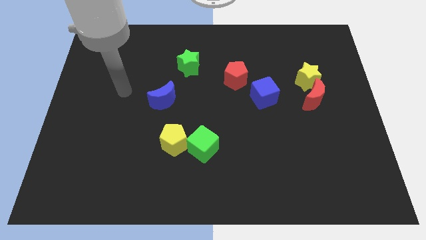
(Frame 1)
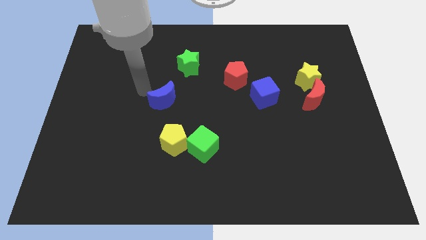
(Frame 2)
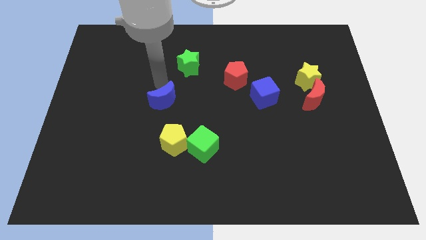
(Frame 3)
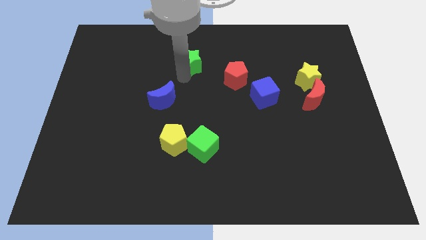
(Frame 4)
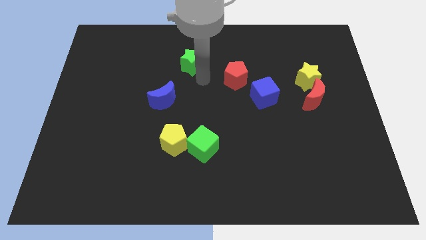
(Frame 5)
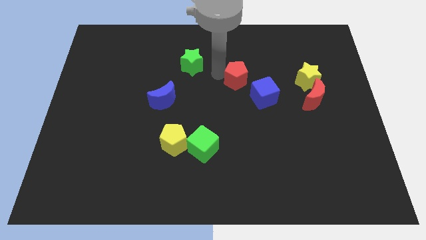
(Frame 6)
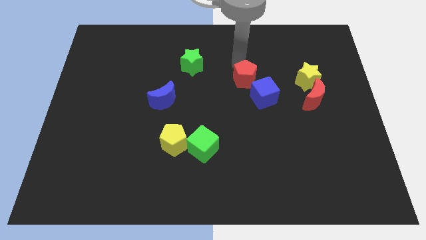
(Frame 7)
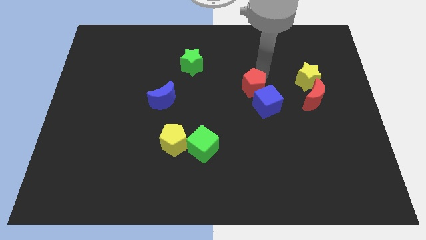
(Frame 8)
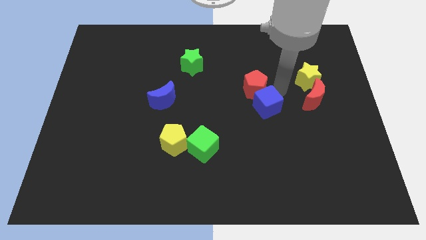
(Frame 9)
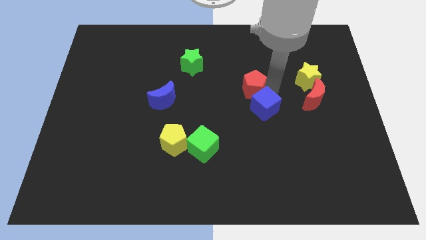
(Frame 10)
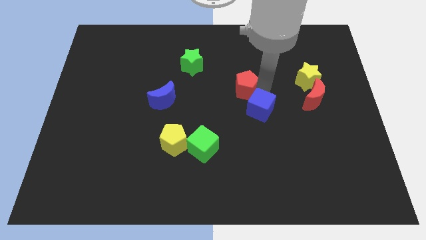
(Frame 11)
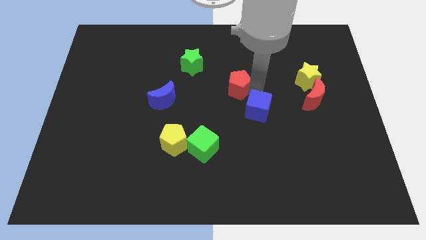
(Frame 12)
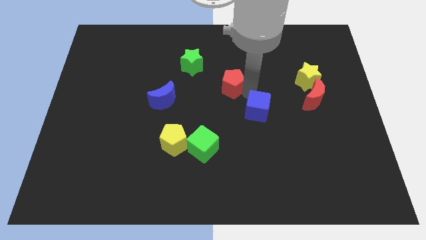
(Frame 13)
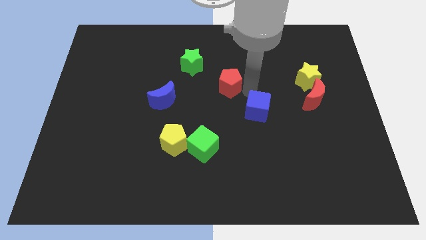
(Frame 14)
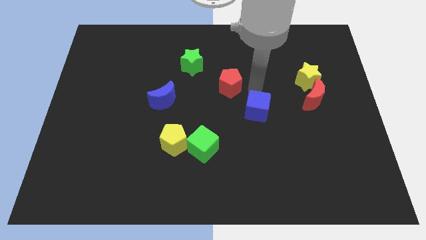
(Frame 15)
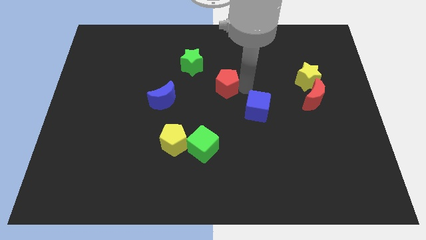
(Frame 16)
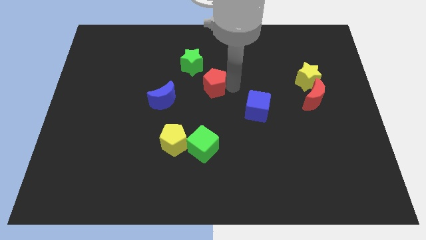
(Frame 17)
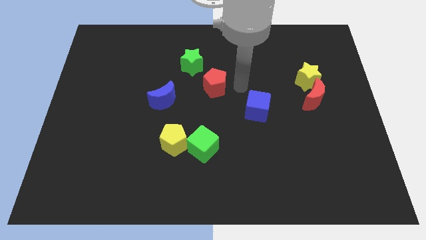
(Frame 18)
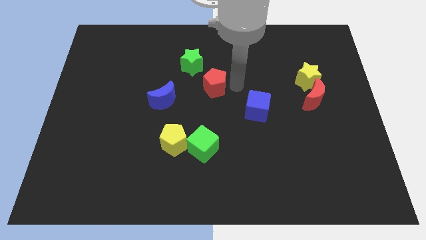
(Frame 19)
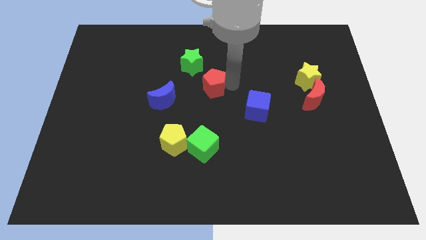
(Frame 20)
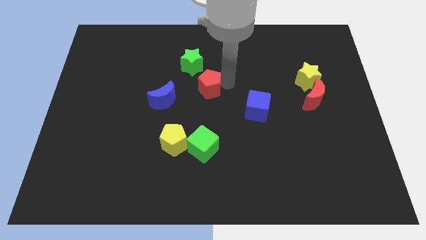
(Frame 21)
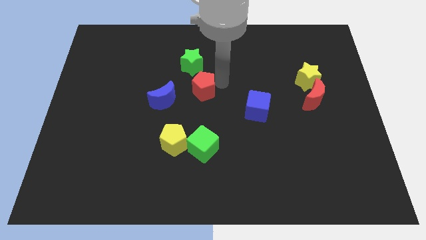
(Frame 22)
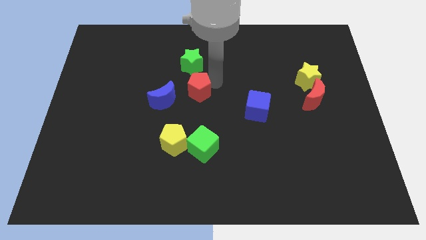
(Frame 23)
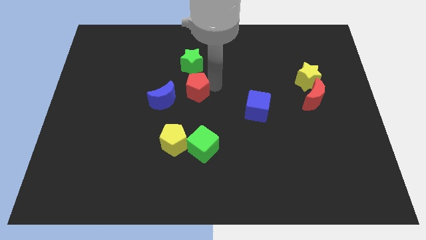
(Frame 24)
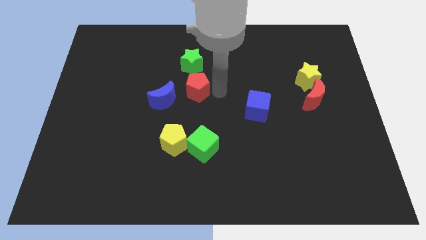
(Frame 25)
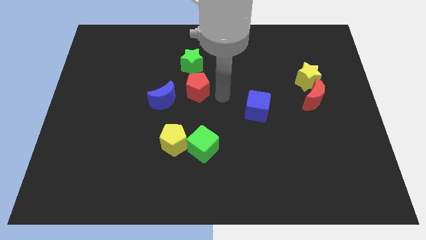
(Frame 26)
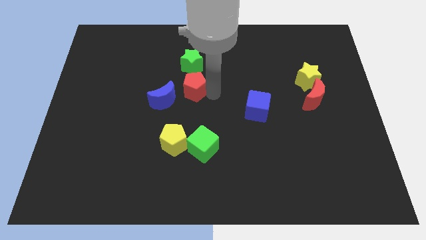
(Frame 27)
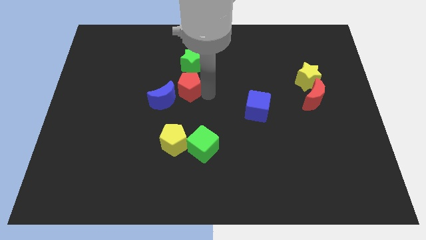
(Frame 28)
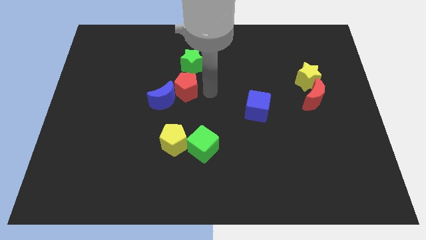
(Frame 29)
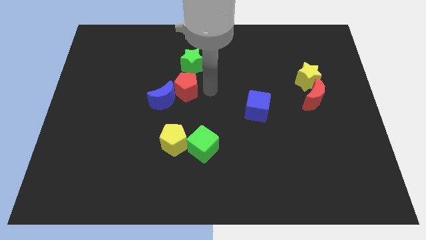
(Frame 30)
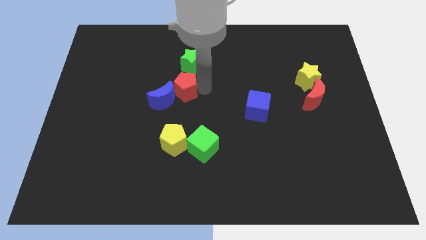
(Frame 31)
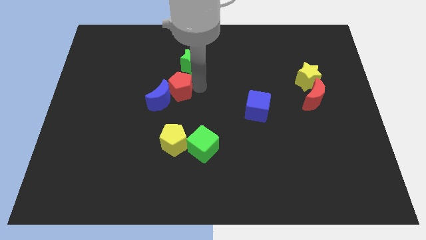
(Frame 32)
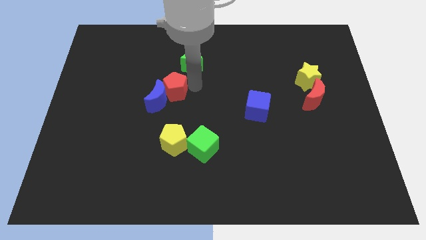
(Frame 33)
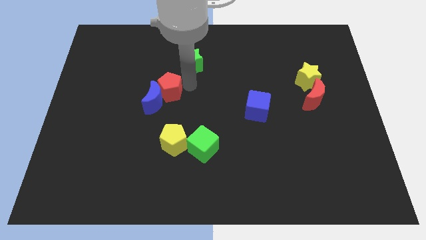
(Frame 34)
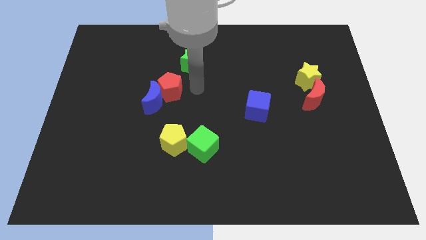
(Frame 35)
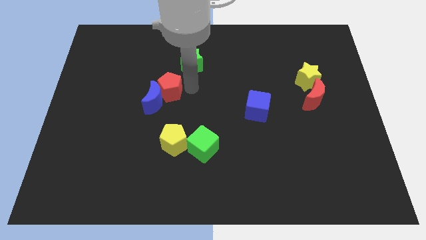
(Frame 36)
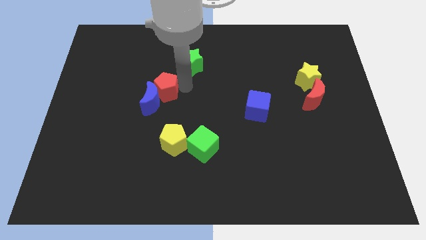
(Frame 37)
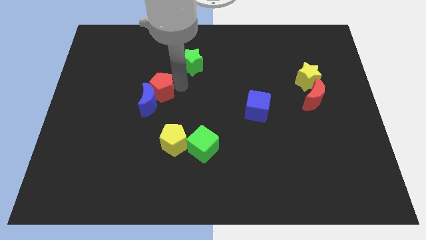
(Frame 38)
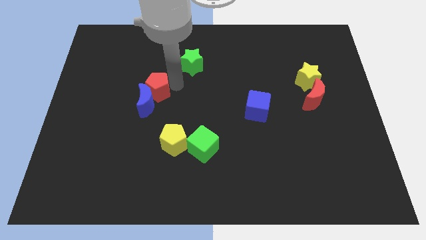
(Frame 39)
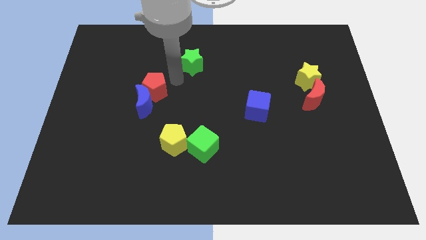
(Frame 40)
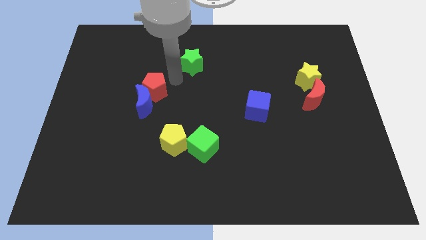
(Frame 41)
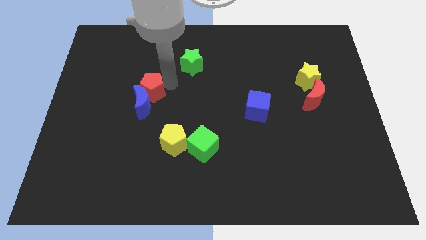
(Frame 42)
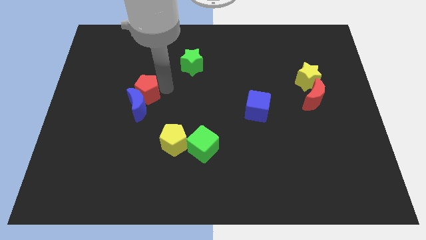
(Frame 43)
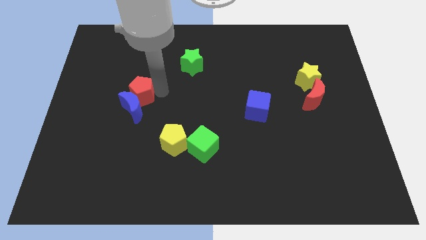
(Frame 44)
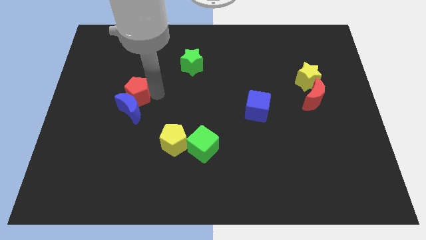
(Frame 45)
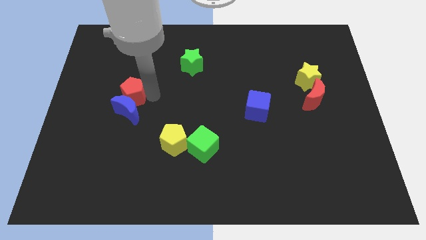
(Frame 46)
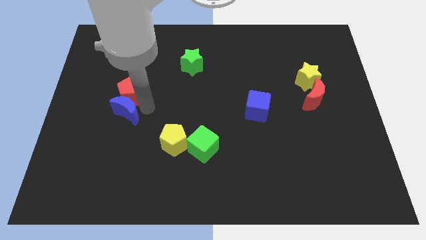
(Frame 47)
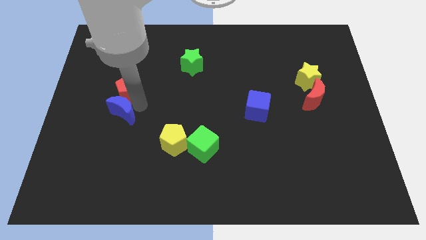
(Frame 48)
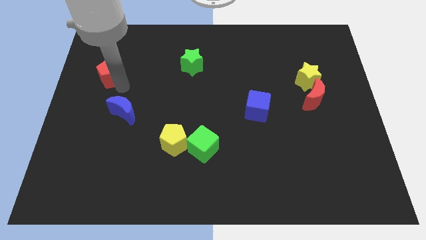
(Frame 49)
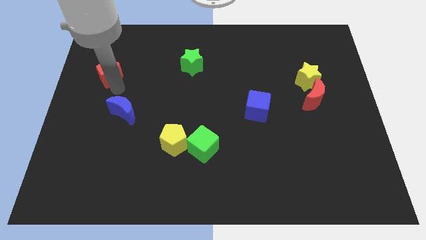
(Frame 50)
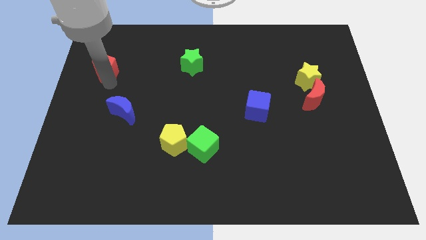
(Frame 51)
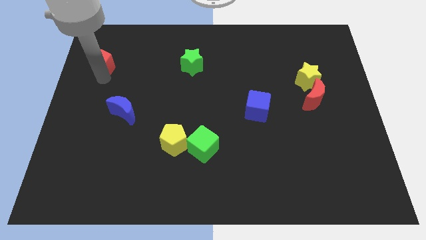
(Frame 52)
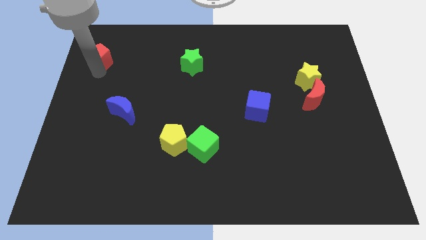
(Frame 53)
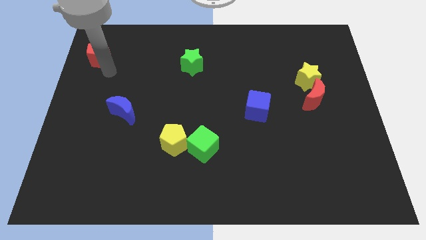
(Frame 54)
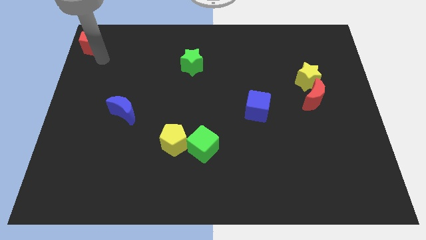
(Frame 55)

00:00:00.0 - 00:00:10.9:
push the red pentagon to the upper left corner

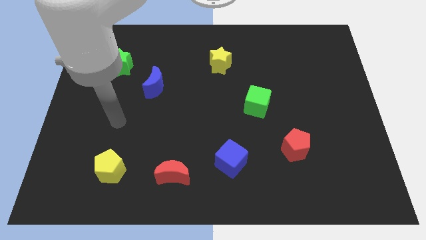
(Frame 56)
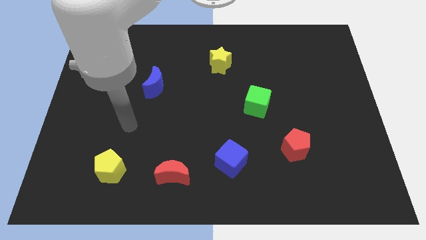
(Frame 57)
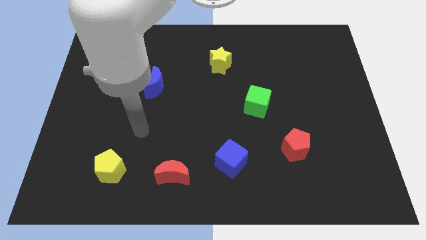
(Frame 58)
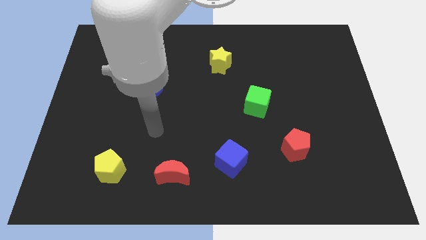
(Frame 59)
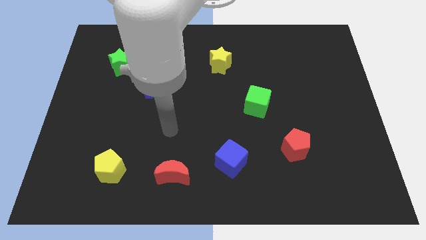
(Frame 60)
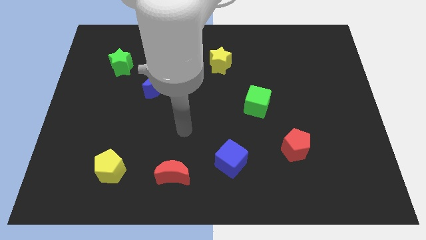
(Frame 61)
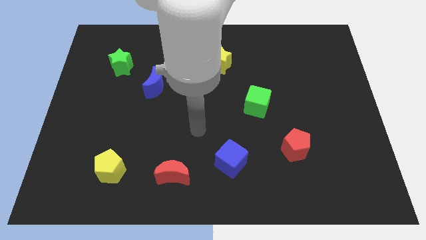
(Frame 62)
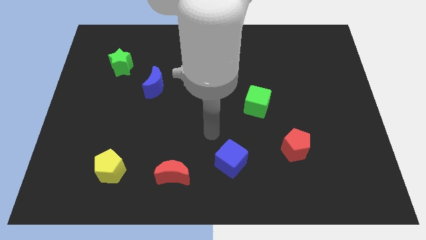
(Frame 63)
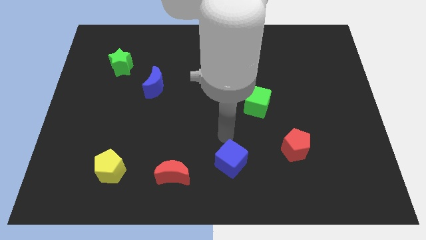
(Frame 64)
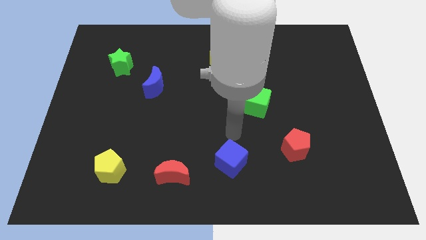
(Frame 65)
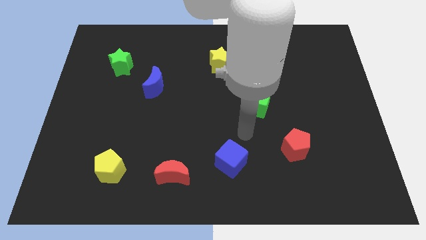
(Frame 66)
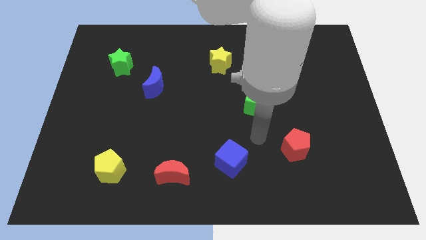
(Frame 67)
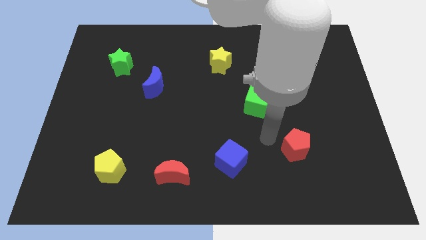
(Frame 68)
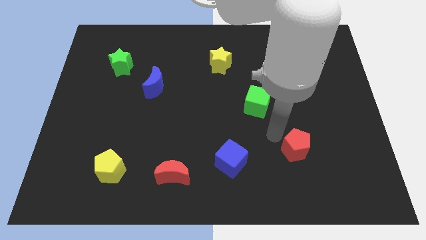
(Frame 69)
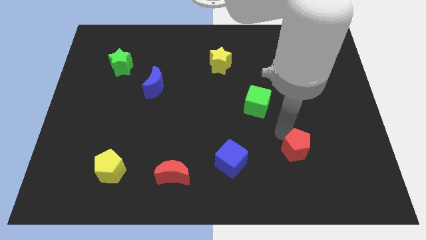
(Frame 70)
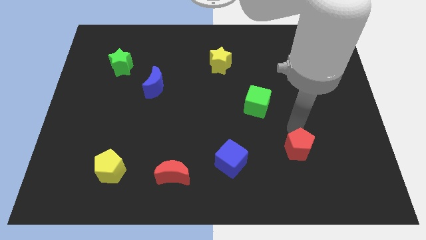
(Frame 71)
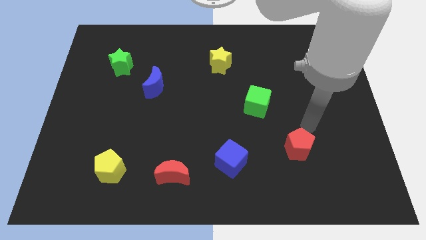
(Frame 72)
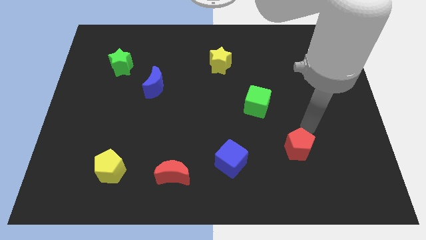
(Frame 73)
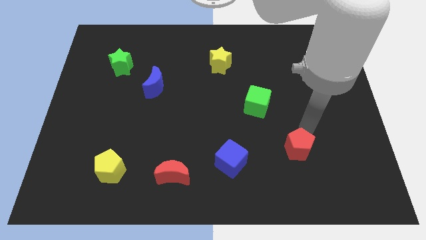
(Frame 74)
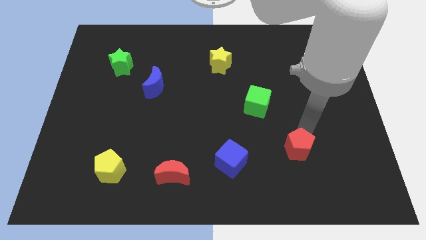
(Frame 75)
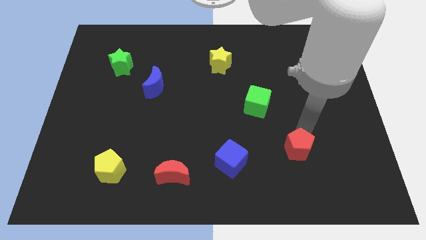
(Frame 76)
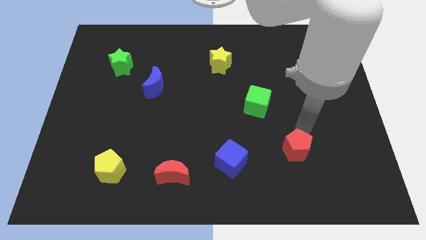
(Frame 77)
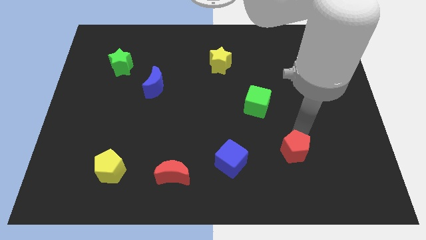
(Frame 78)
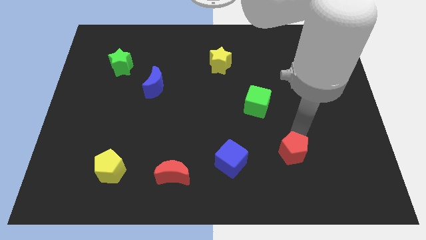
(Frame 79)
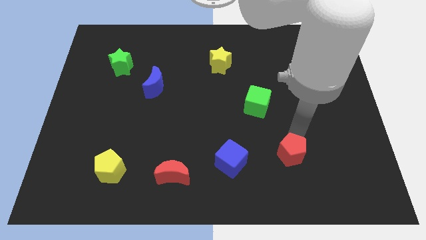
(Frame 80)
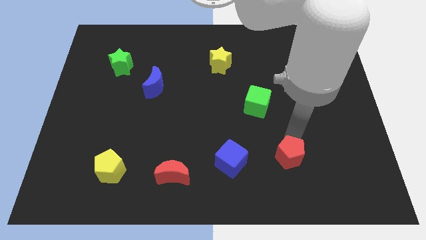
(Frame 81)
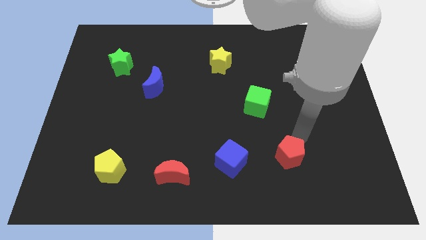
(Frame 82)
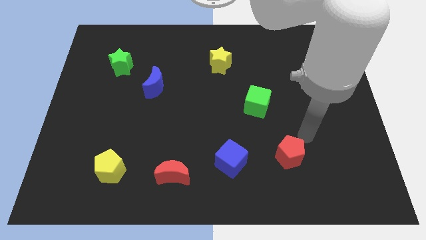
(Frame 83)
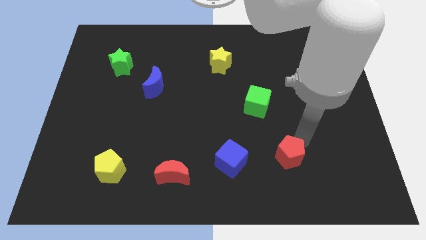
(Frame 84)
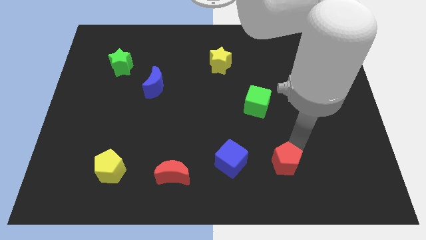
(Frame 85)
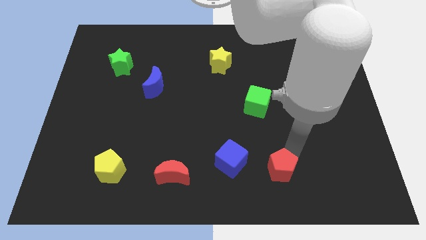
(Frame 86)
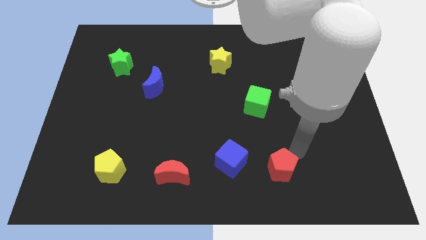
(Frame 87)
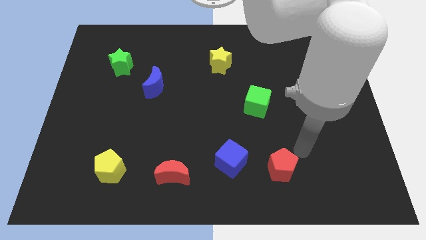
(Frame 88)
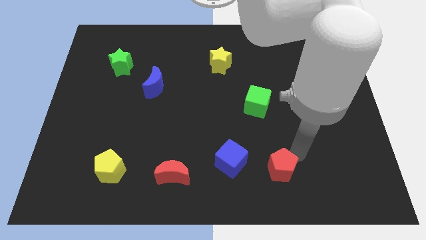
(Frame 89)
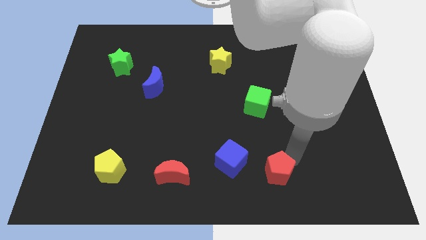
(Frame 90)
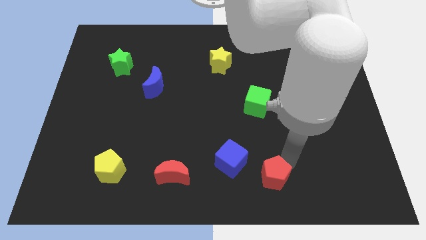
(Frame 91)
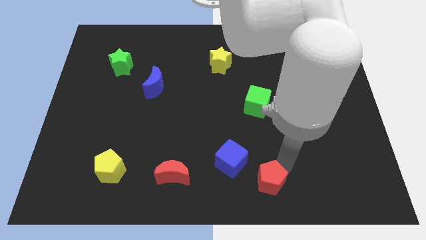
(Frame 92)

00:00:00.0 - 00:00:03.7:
slide the red pentagon to the bottom
